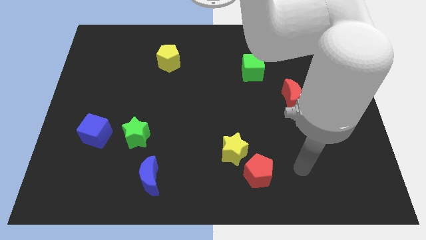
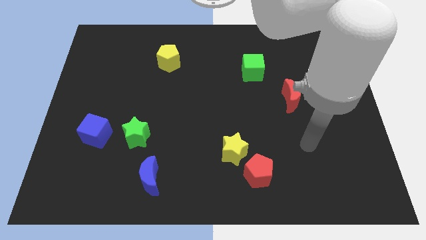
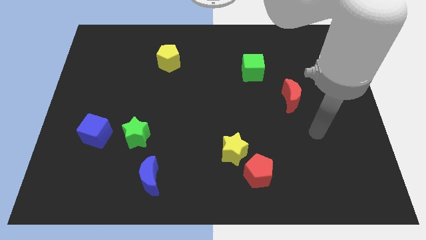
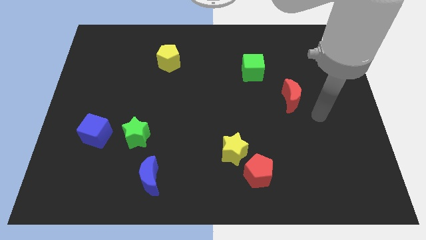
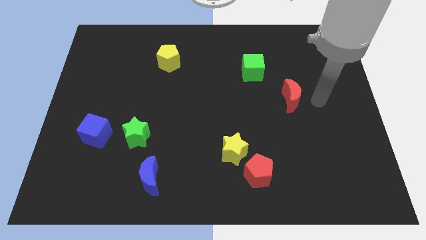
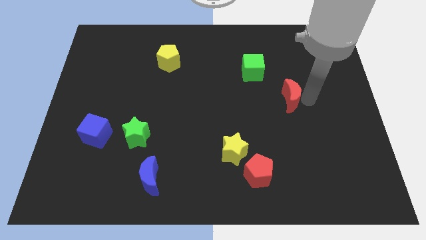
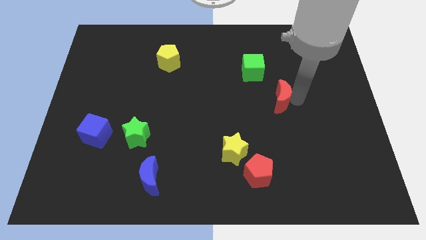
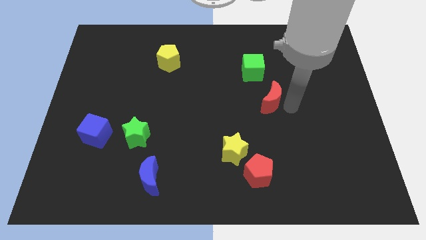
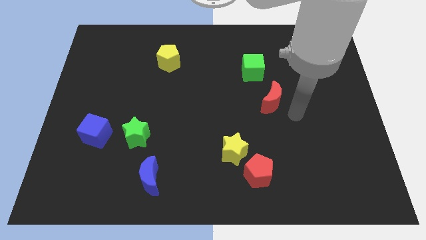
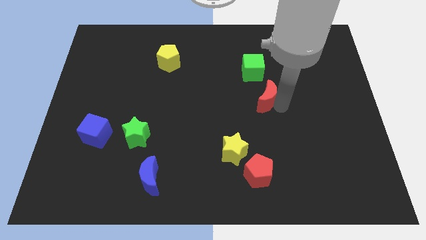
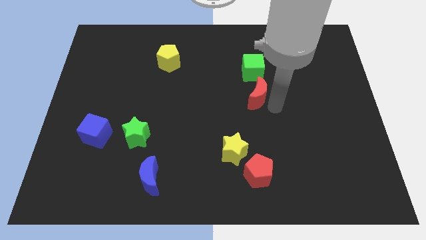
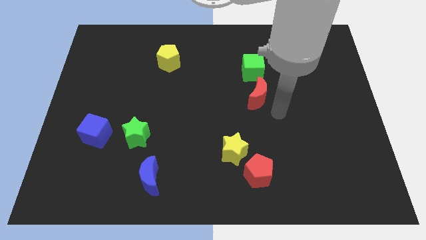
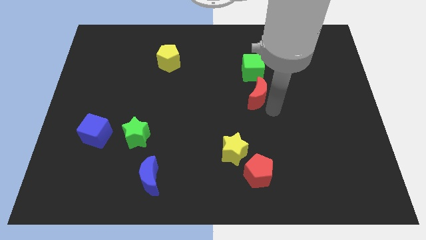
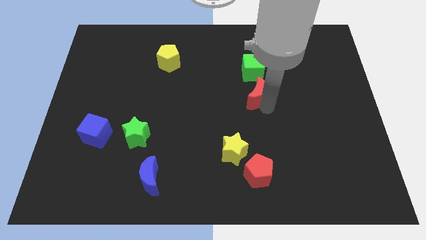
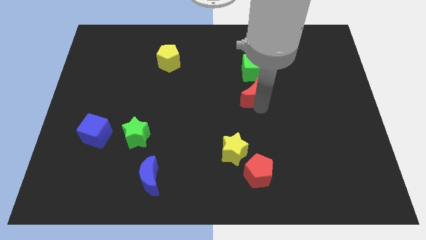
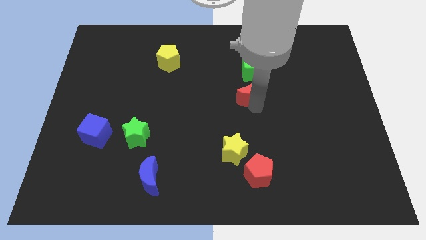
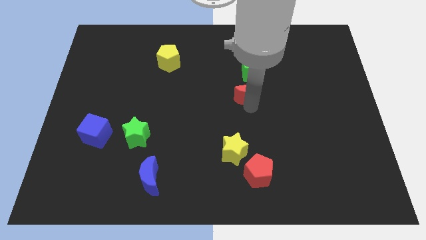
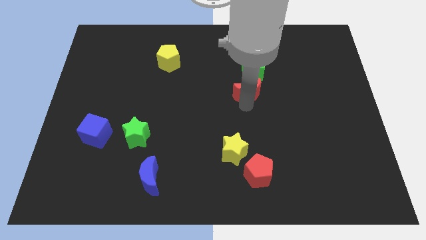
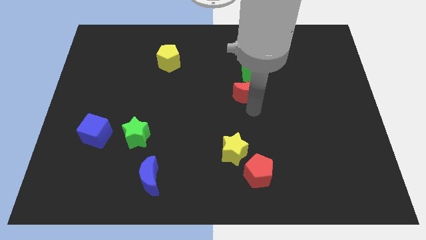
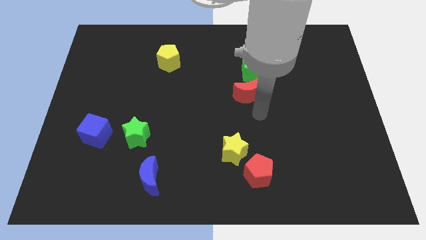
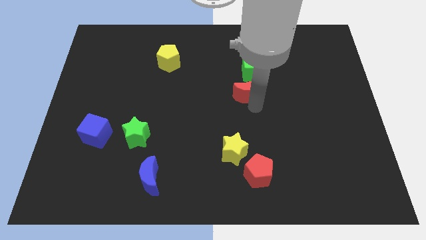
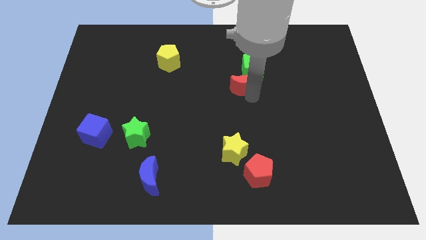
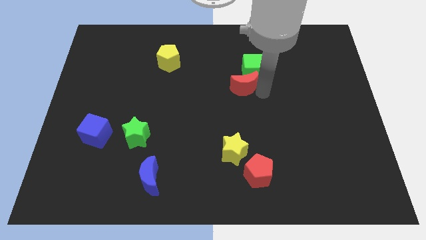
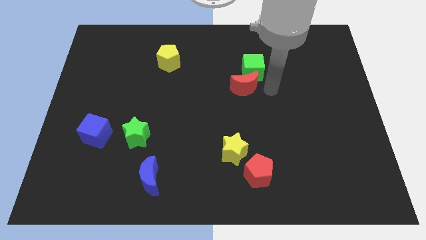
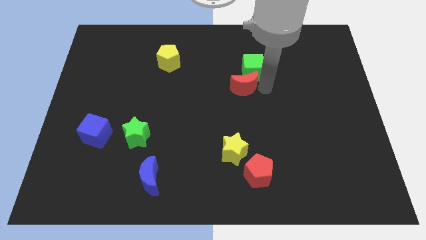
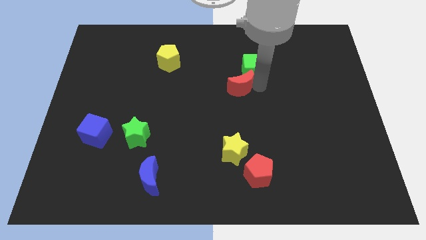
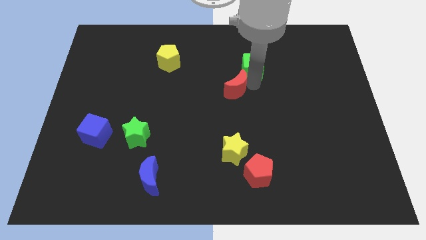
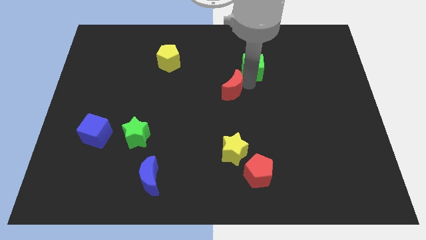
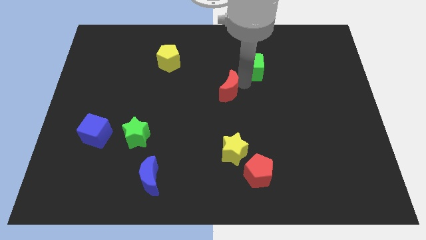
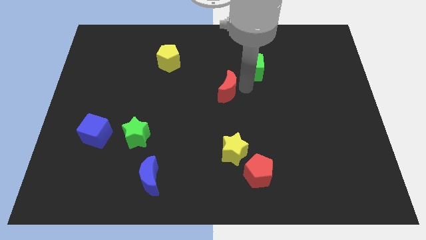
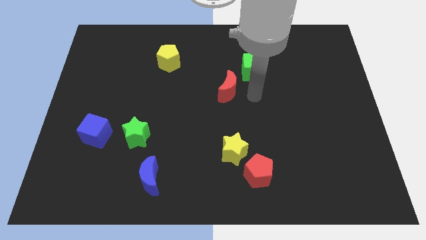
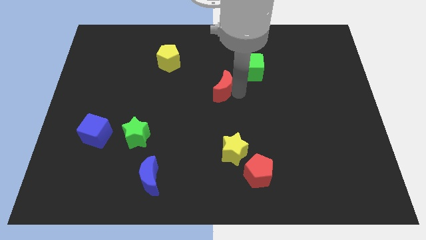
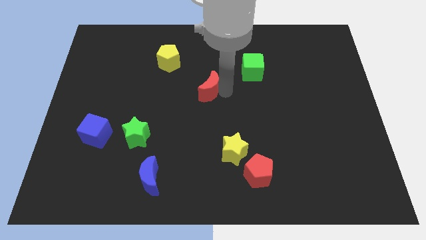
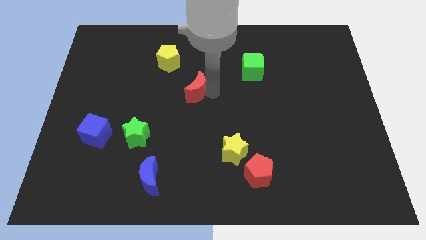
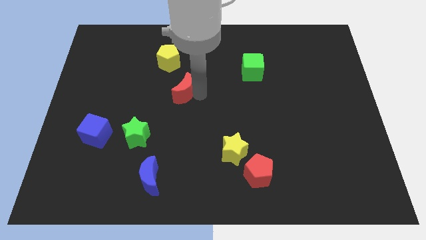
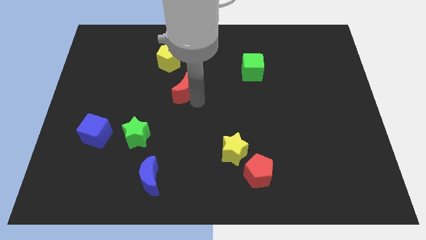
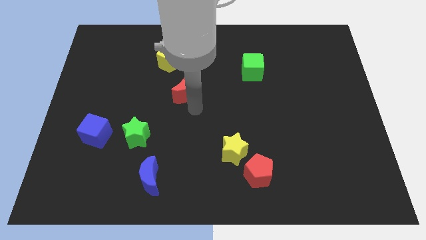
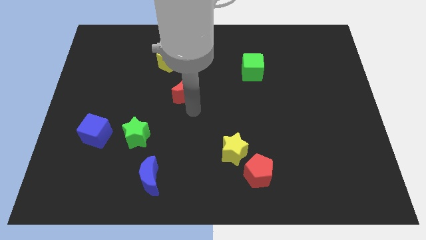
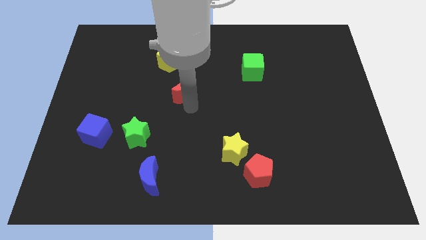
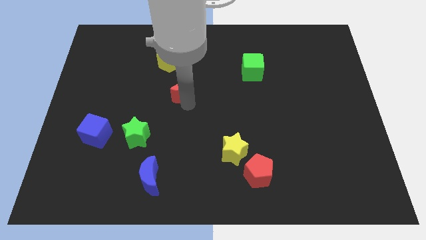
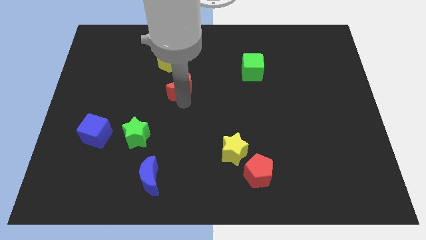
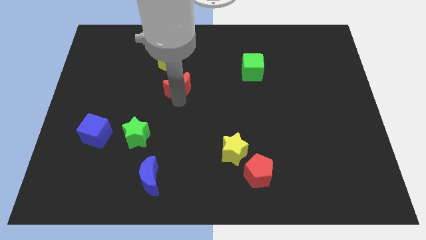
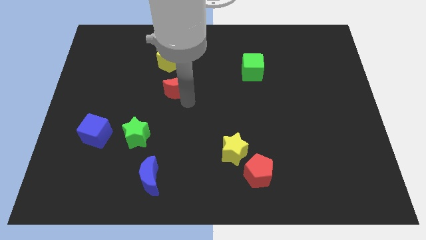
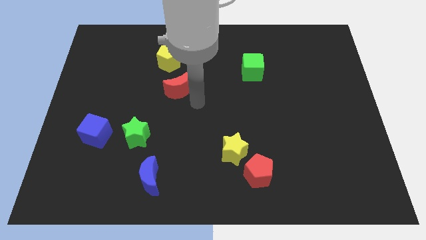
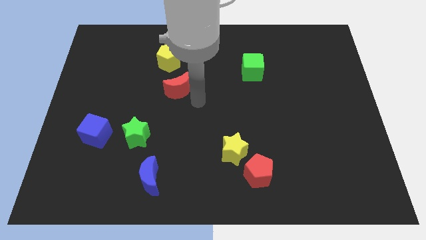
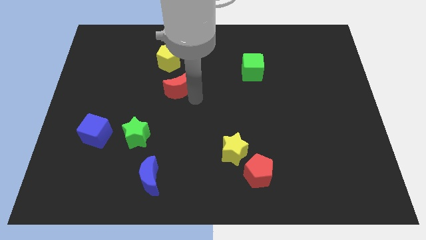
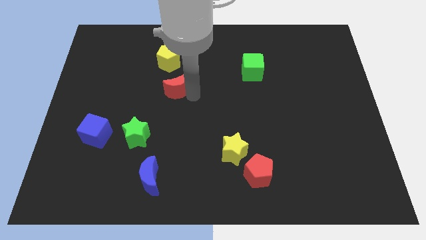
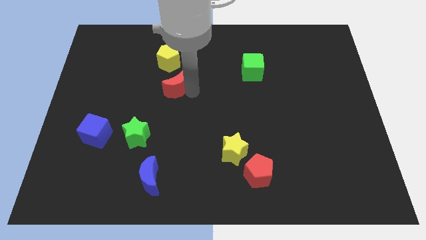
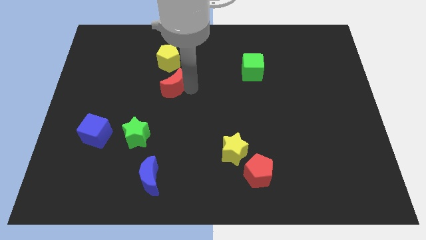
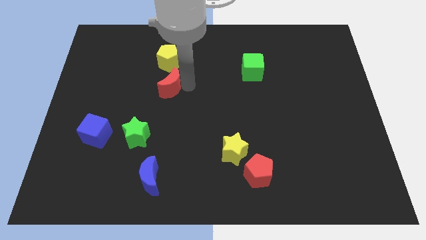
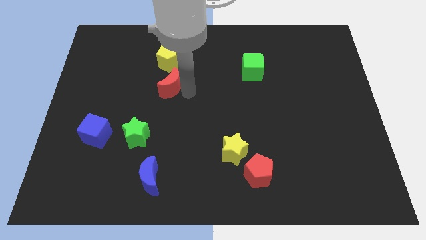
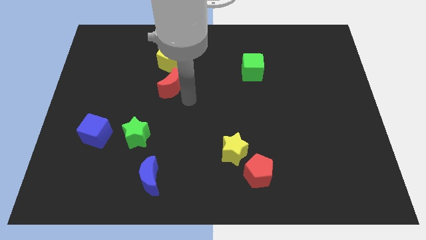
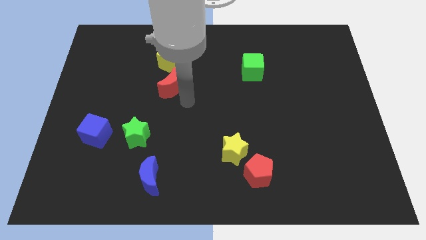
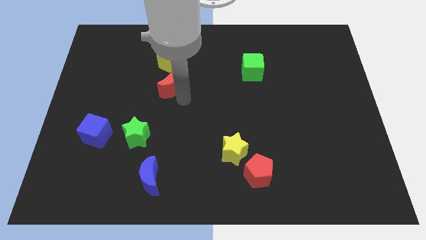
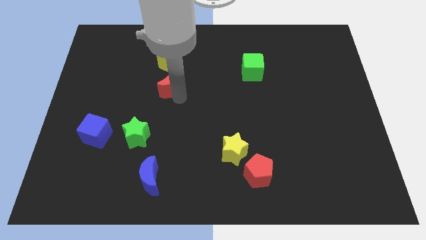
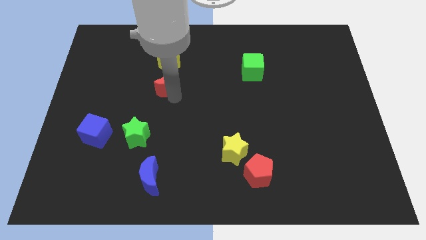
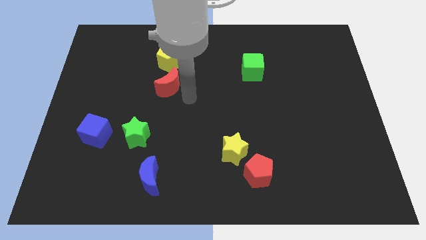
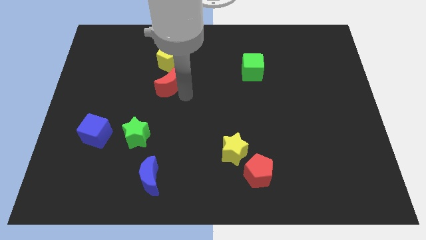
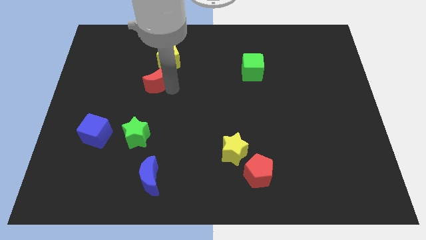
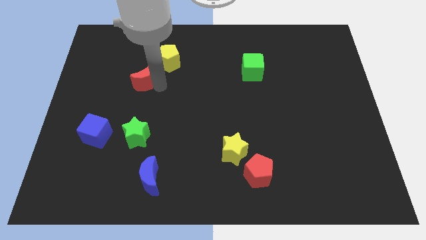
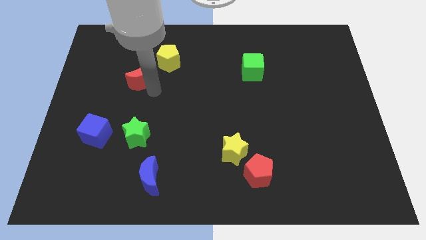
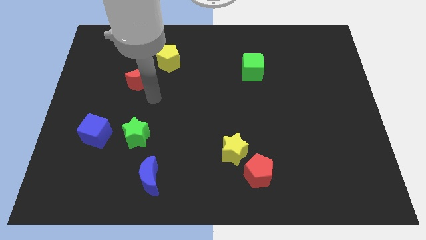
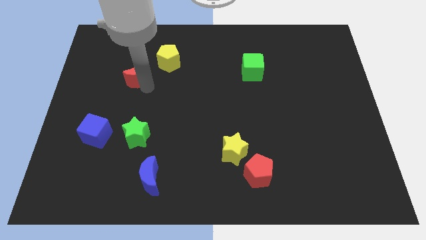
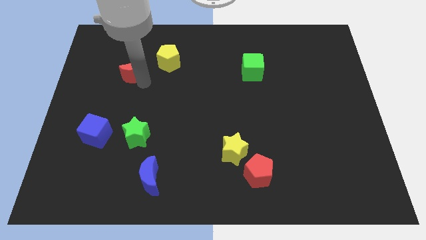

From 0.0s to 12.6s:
slide the red moon just left of the yellow pentagon
